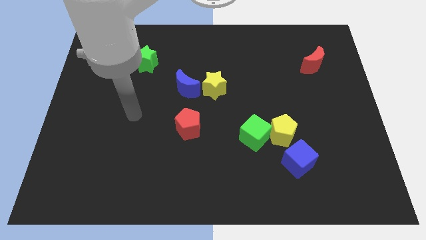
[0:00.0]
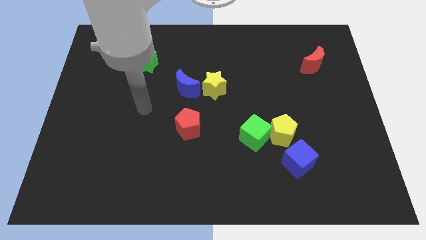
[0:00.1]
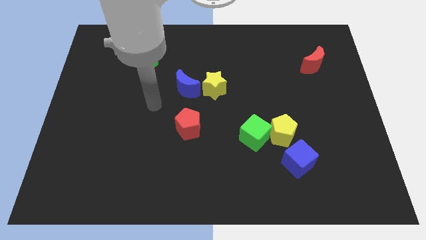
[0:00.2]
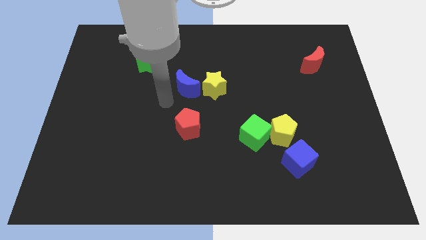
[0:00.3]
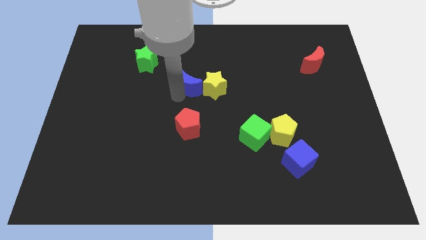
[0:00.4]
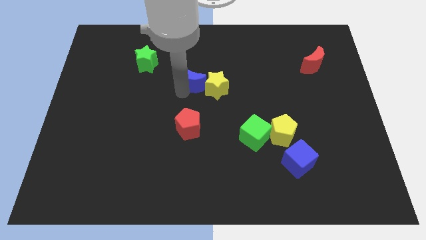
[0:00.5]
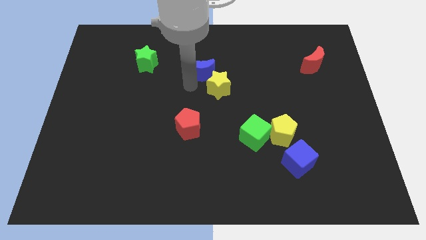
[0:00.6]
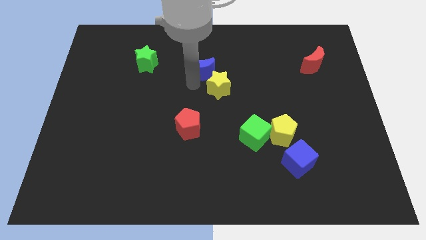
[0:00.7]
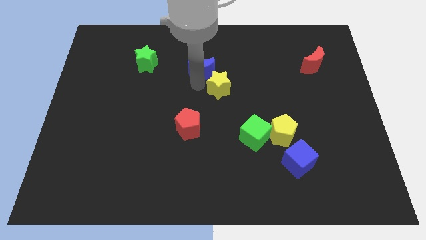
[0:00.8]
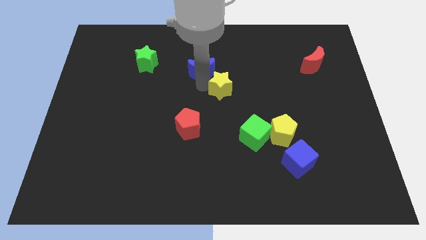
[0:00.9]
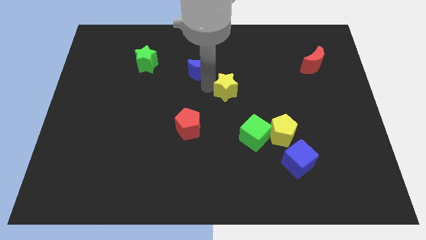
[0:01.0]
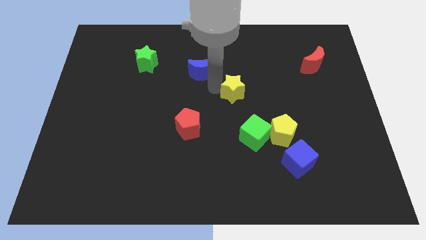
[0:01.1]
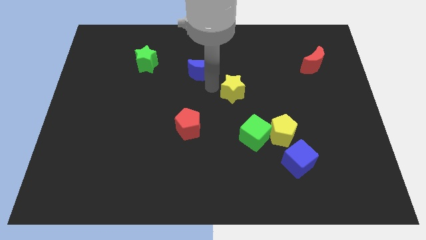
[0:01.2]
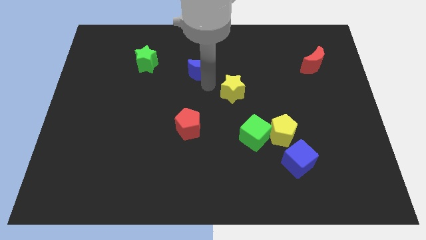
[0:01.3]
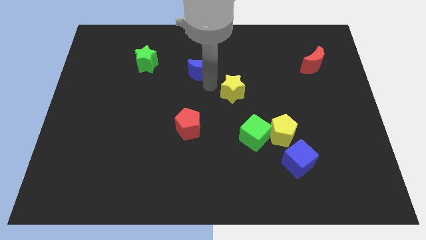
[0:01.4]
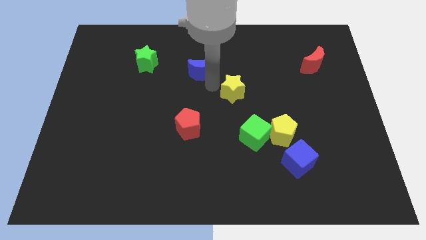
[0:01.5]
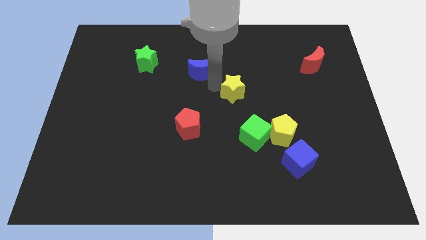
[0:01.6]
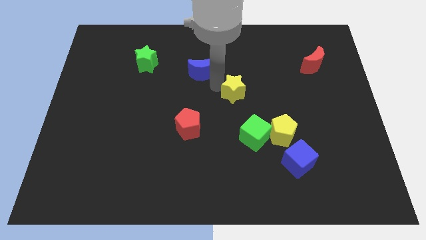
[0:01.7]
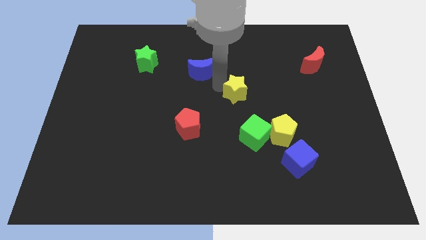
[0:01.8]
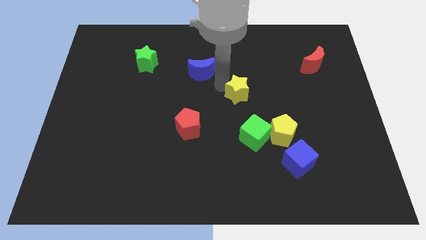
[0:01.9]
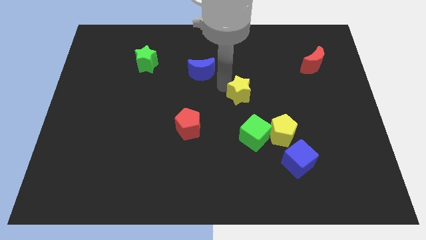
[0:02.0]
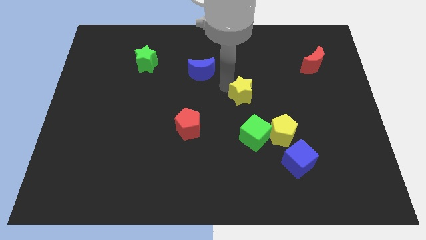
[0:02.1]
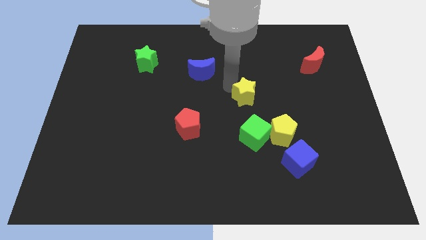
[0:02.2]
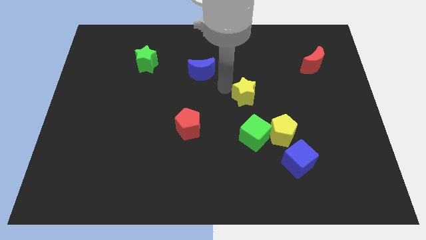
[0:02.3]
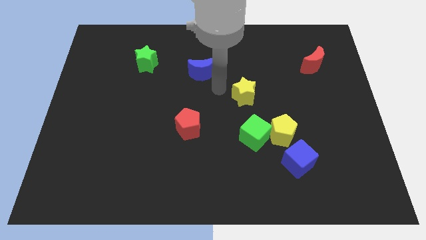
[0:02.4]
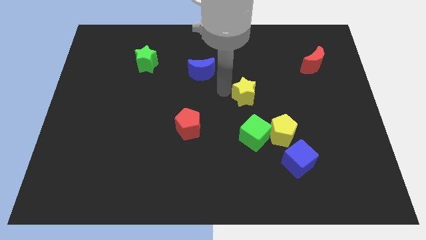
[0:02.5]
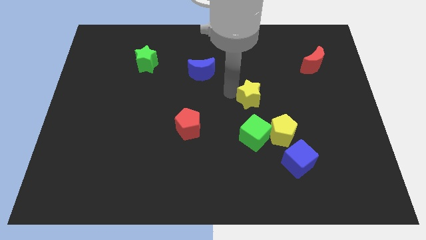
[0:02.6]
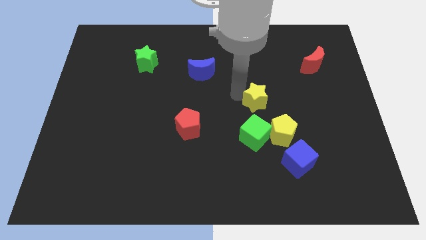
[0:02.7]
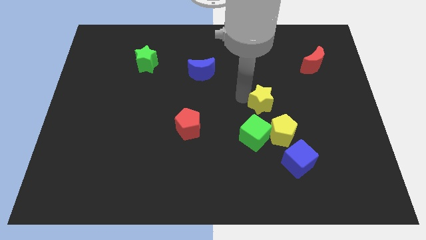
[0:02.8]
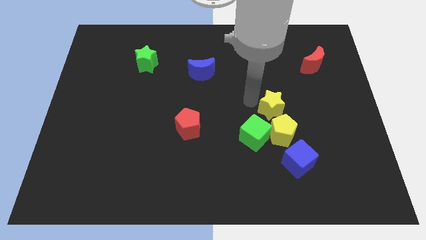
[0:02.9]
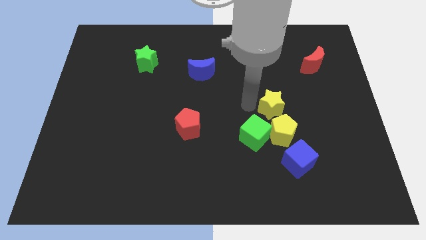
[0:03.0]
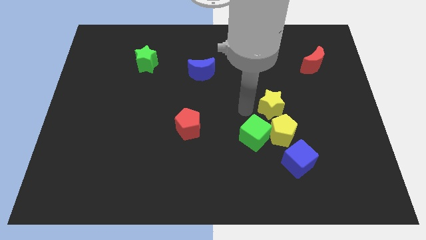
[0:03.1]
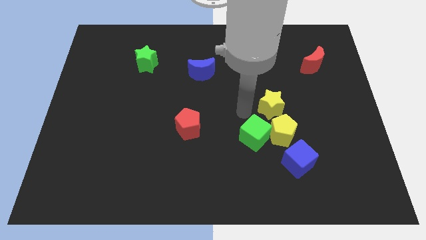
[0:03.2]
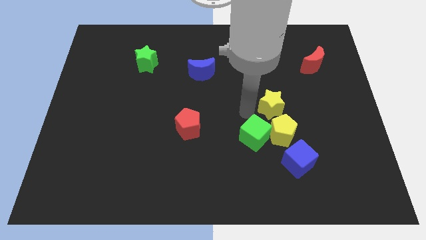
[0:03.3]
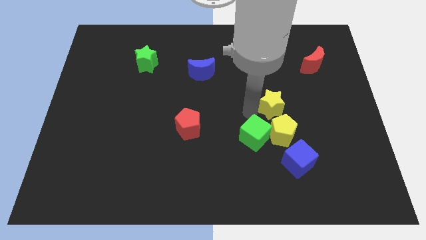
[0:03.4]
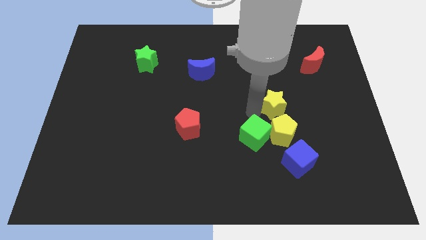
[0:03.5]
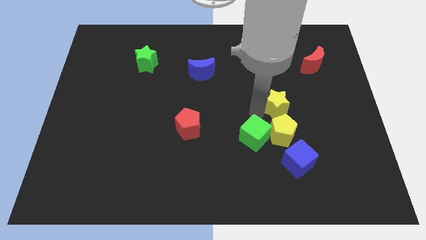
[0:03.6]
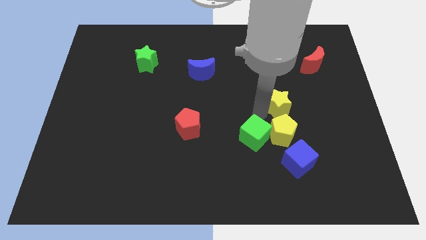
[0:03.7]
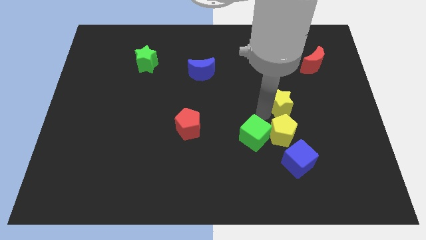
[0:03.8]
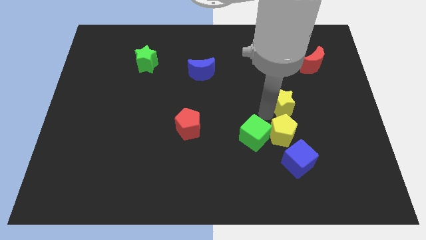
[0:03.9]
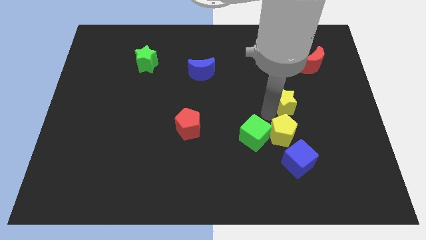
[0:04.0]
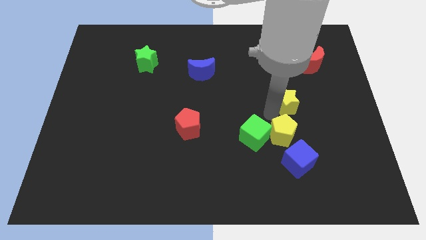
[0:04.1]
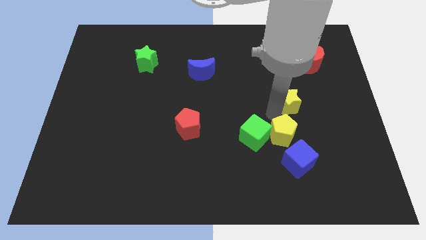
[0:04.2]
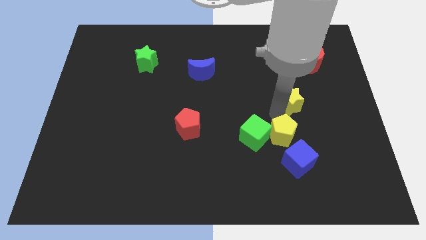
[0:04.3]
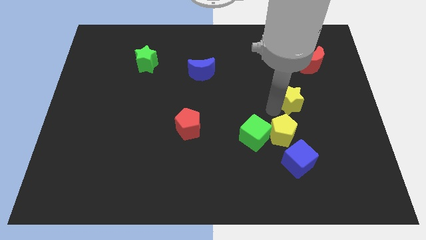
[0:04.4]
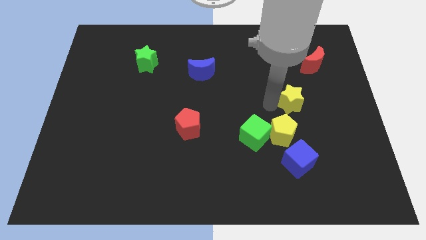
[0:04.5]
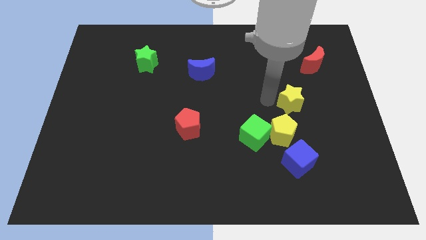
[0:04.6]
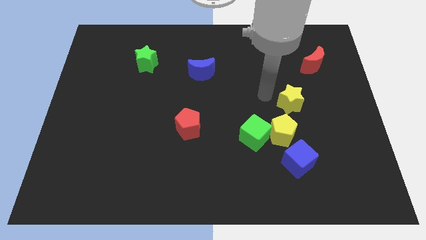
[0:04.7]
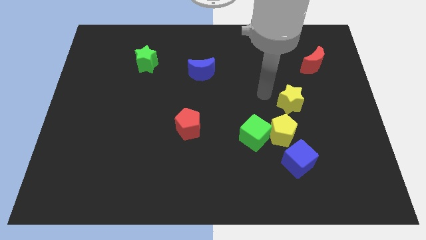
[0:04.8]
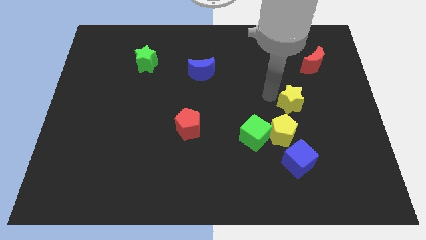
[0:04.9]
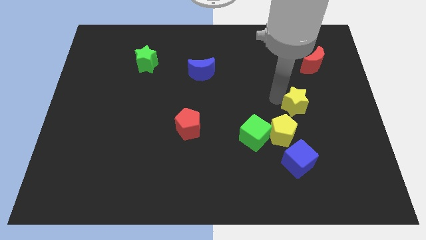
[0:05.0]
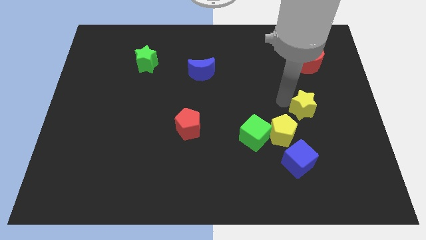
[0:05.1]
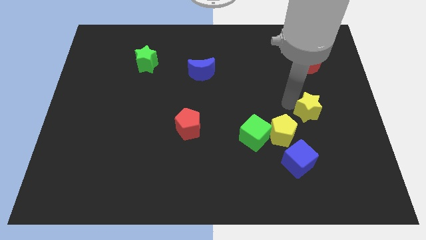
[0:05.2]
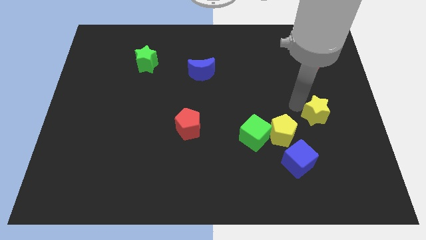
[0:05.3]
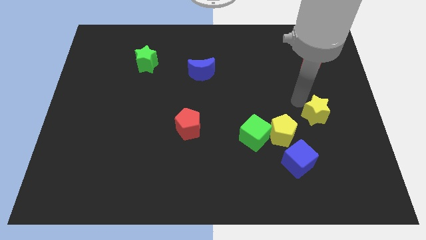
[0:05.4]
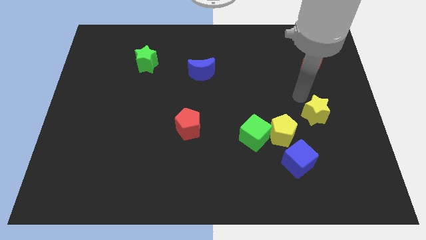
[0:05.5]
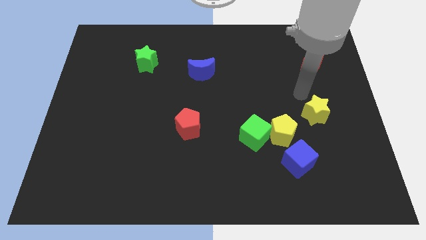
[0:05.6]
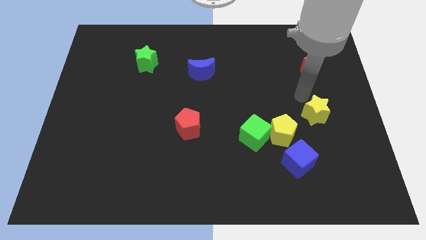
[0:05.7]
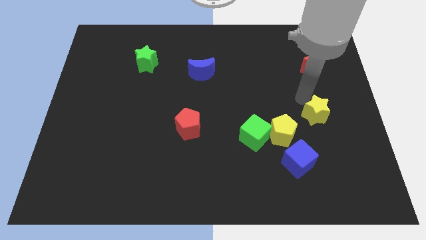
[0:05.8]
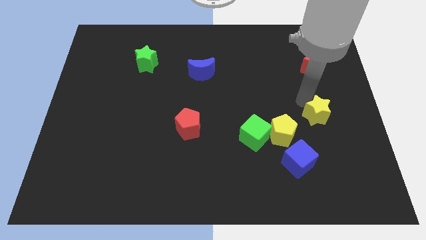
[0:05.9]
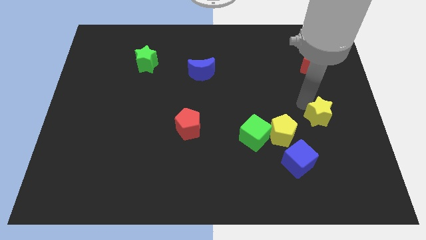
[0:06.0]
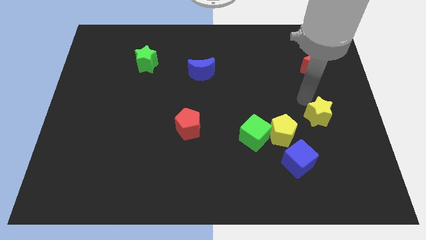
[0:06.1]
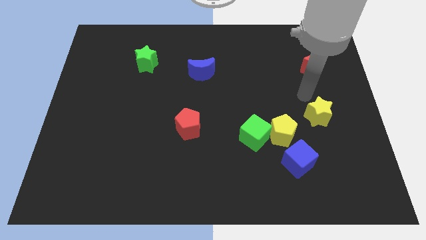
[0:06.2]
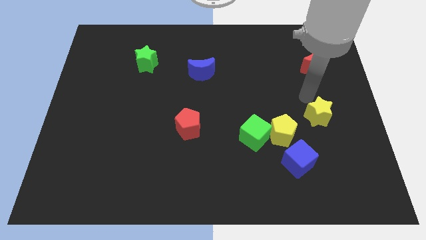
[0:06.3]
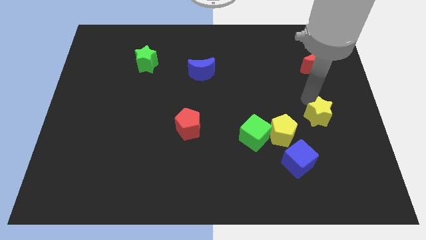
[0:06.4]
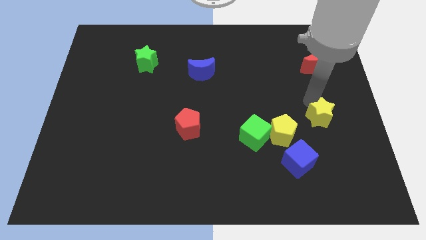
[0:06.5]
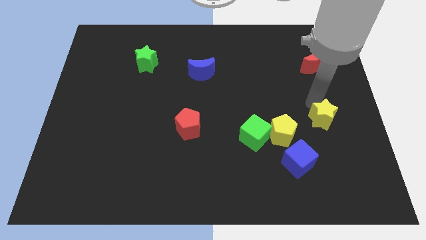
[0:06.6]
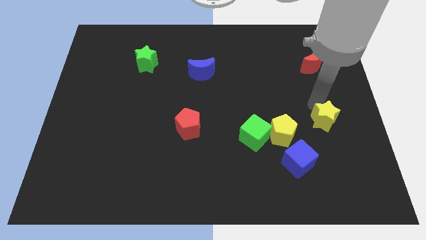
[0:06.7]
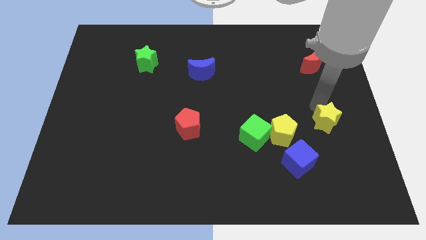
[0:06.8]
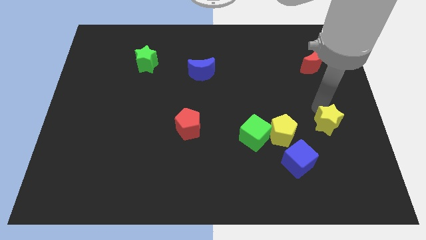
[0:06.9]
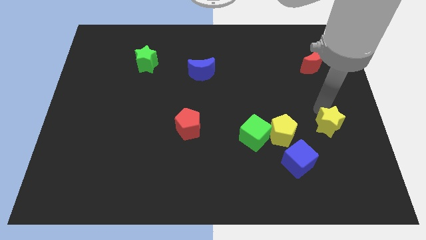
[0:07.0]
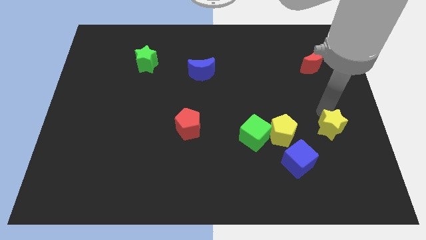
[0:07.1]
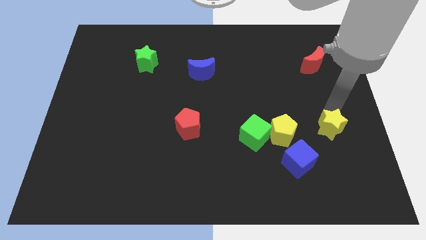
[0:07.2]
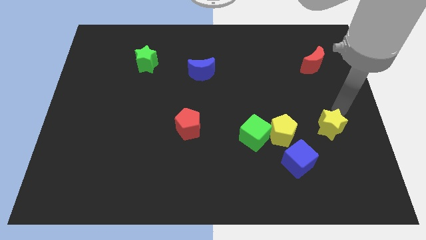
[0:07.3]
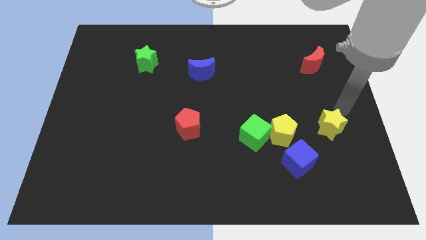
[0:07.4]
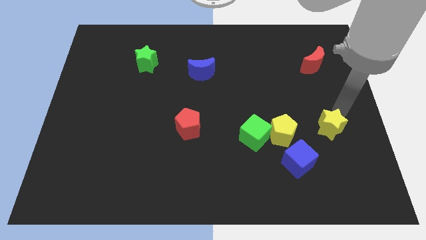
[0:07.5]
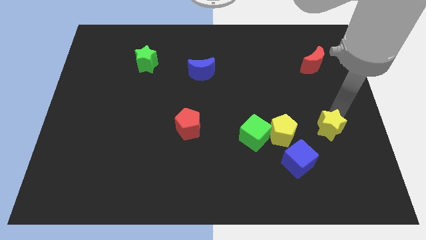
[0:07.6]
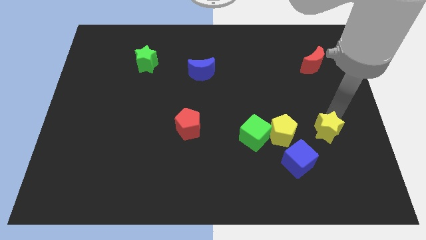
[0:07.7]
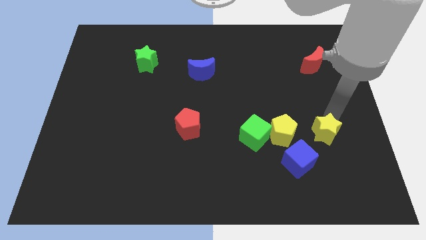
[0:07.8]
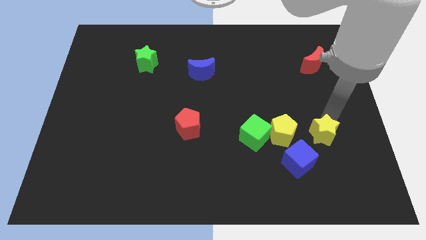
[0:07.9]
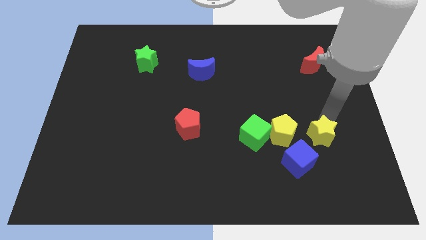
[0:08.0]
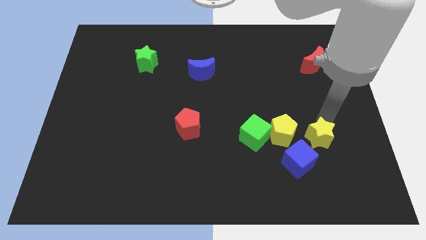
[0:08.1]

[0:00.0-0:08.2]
push the yellow star to the bottom right of the yellow pentagon
